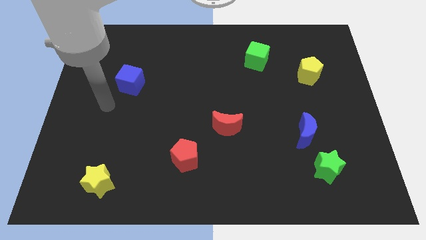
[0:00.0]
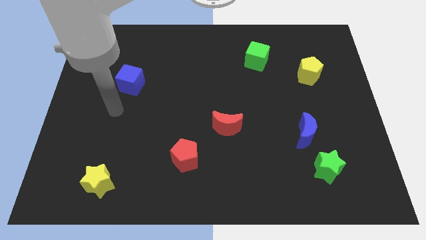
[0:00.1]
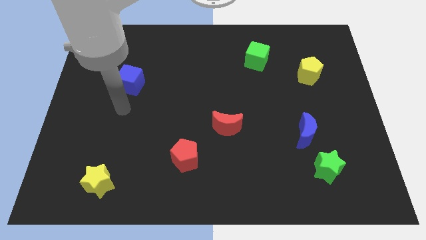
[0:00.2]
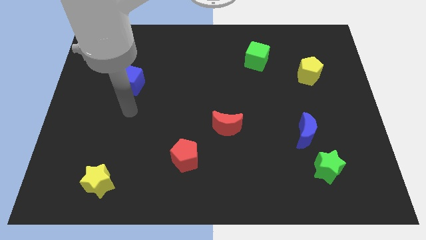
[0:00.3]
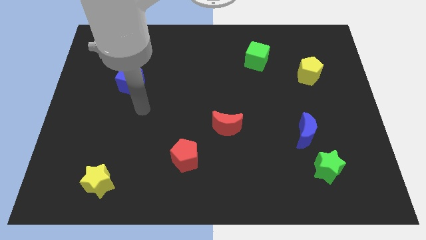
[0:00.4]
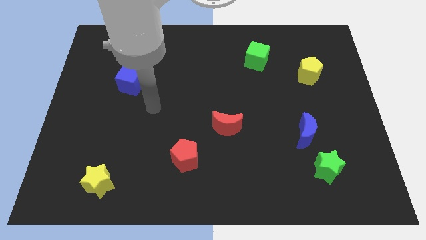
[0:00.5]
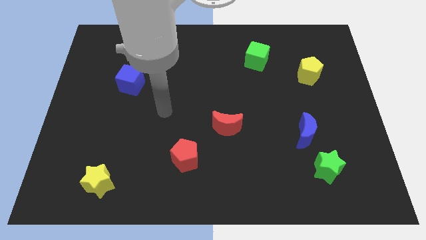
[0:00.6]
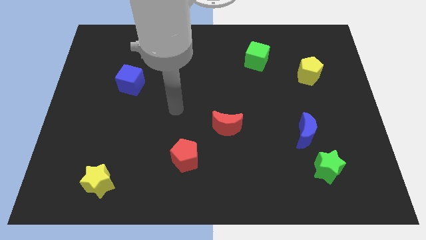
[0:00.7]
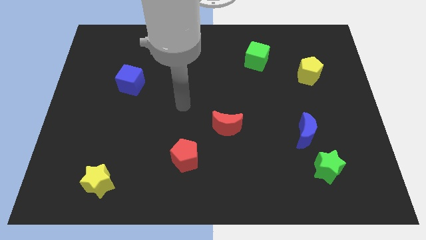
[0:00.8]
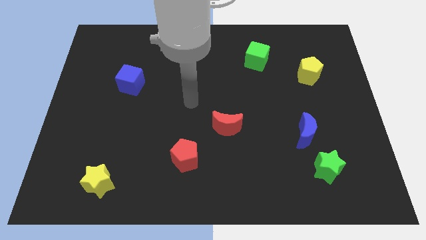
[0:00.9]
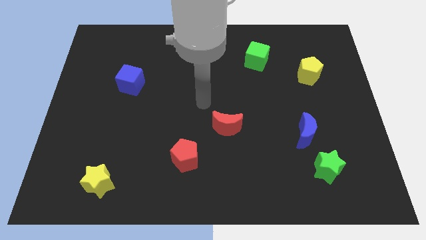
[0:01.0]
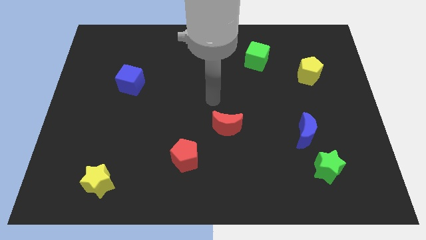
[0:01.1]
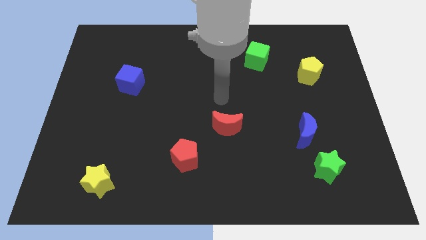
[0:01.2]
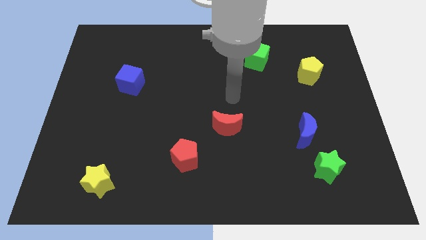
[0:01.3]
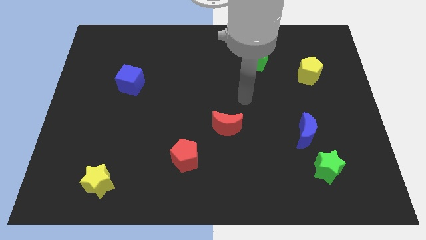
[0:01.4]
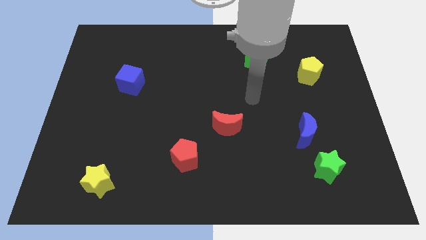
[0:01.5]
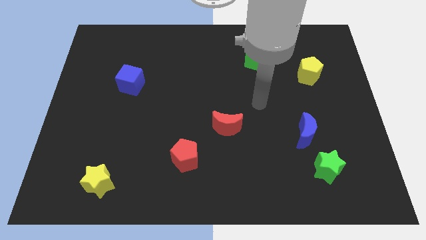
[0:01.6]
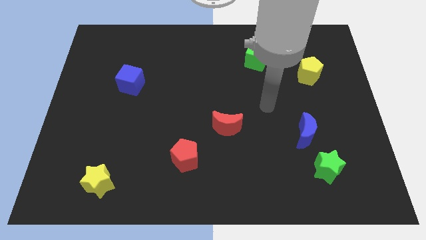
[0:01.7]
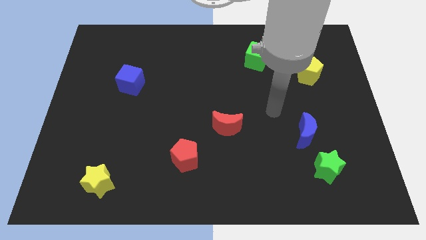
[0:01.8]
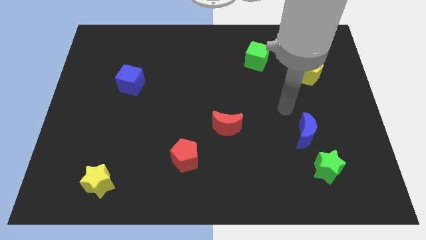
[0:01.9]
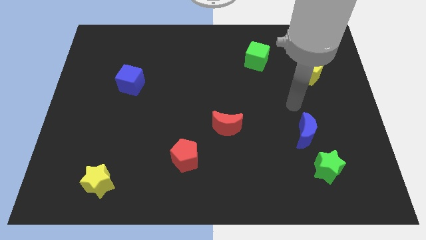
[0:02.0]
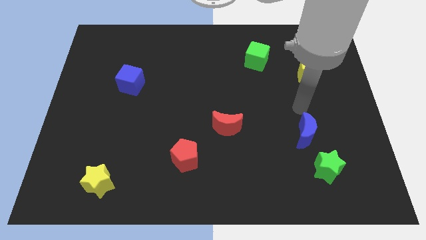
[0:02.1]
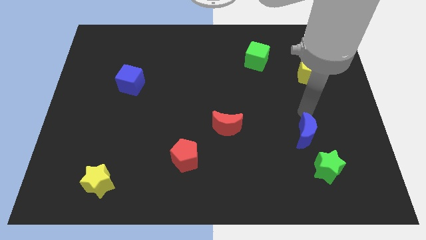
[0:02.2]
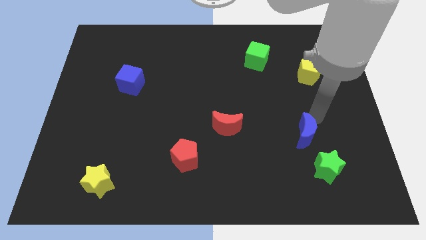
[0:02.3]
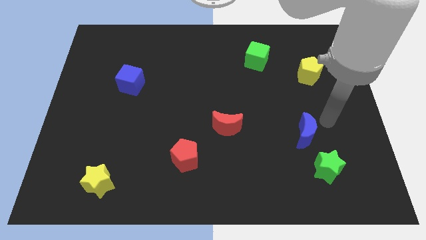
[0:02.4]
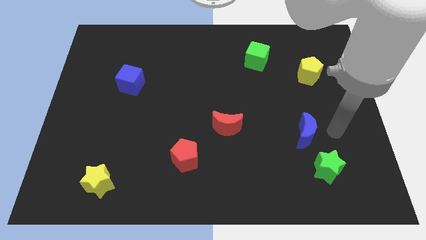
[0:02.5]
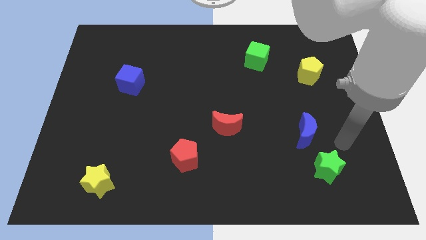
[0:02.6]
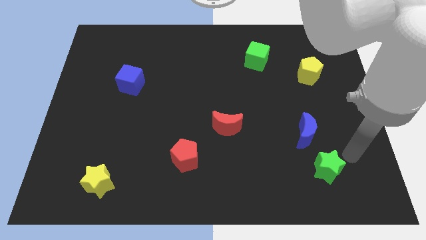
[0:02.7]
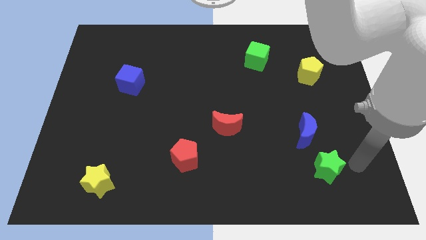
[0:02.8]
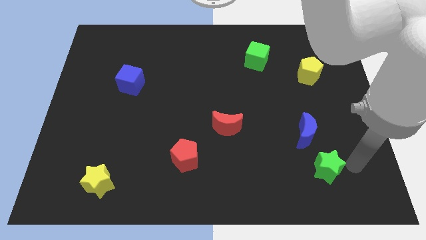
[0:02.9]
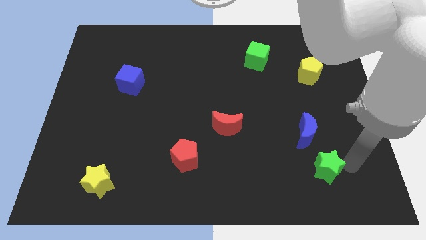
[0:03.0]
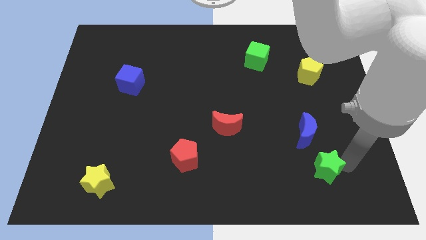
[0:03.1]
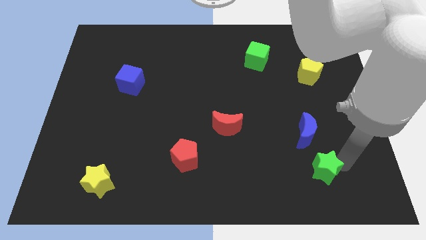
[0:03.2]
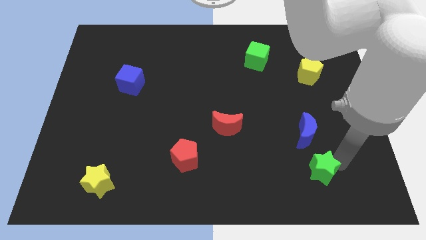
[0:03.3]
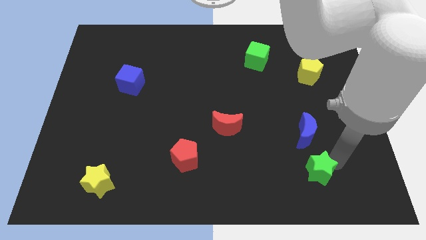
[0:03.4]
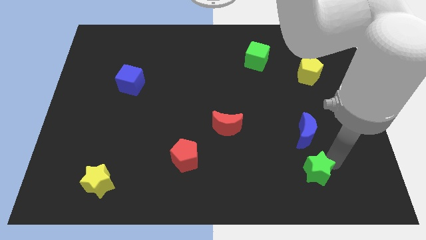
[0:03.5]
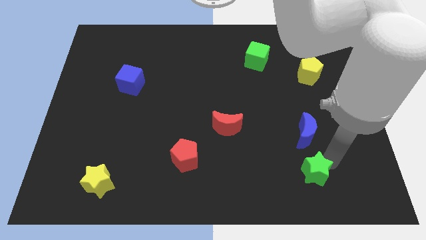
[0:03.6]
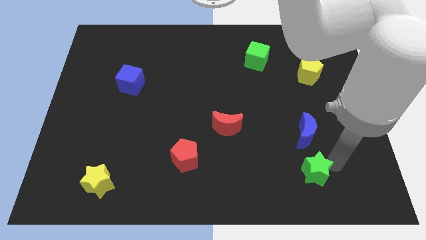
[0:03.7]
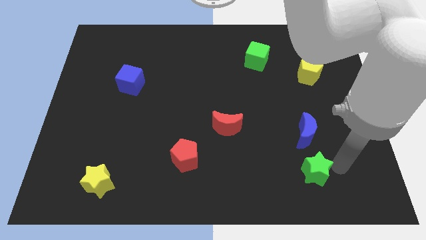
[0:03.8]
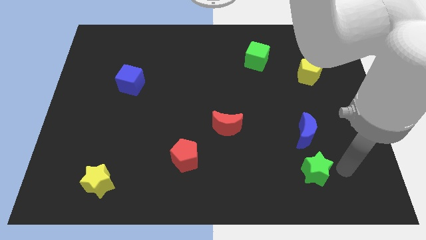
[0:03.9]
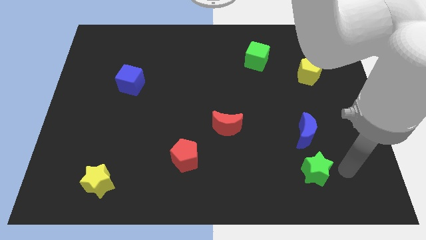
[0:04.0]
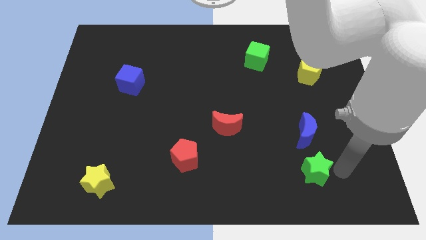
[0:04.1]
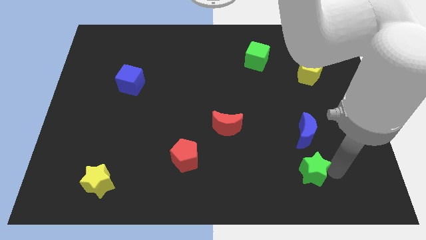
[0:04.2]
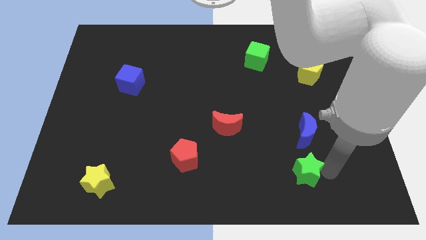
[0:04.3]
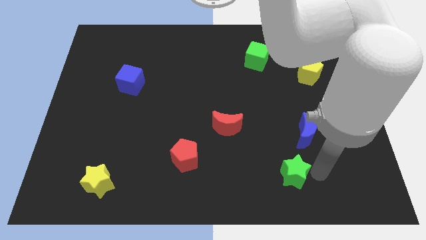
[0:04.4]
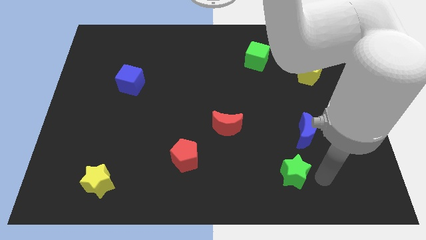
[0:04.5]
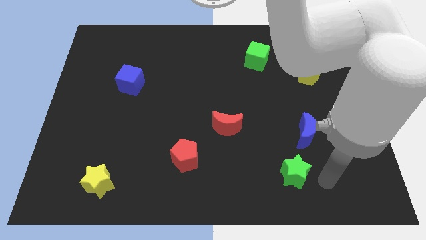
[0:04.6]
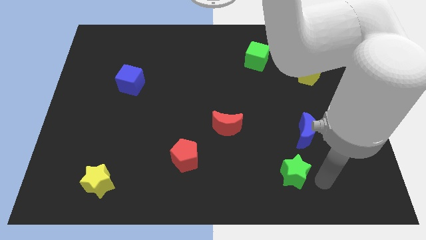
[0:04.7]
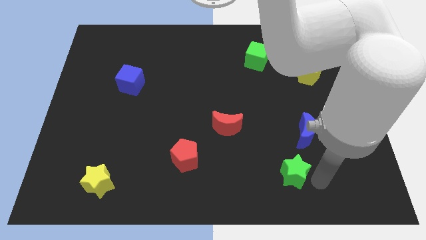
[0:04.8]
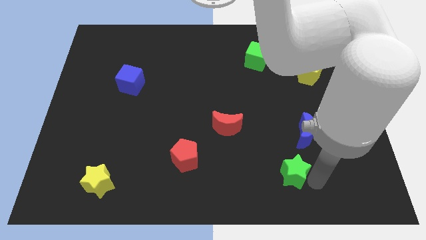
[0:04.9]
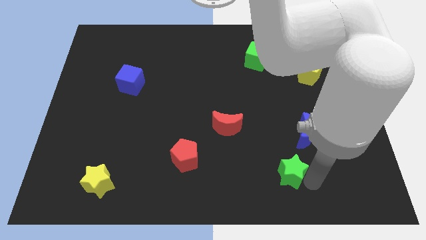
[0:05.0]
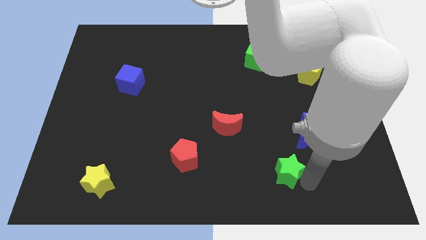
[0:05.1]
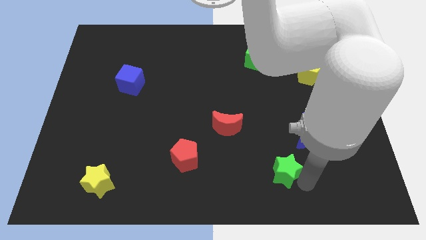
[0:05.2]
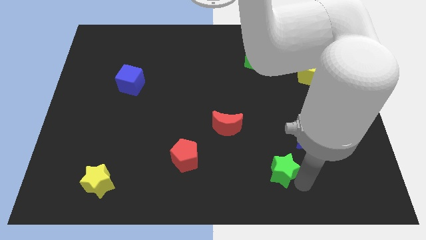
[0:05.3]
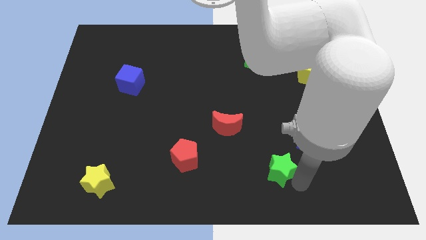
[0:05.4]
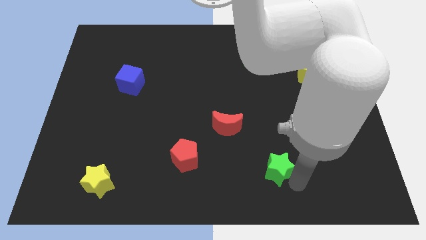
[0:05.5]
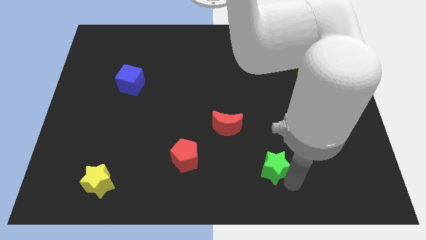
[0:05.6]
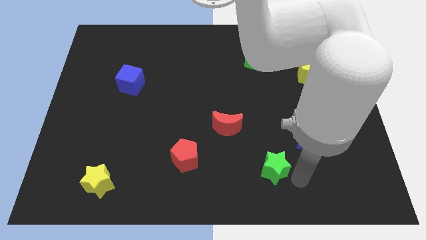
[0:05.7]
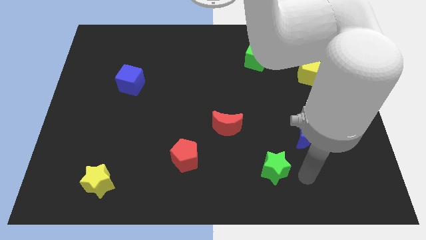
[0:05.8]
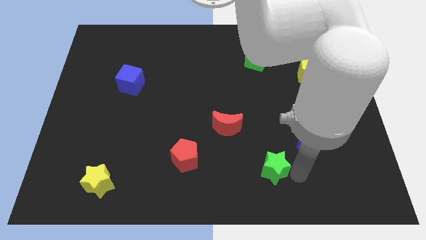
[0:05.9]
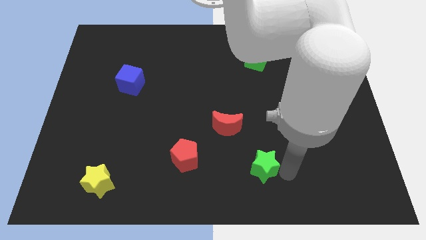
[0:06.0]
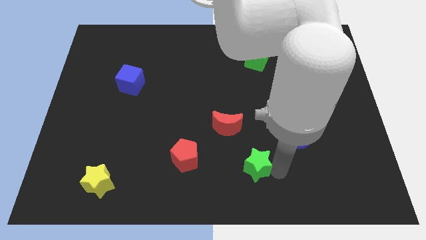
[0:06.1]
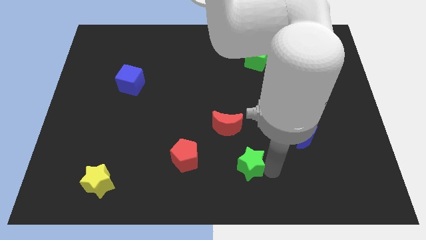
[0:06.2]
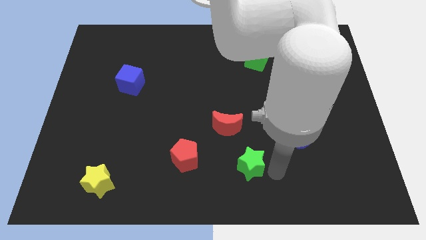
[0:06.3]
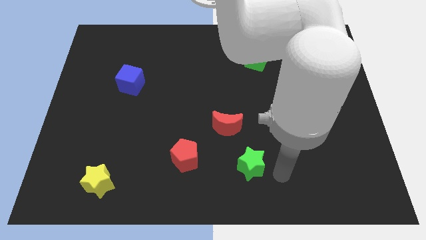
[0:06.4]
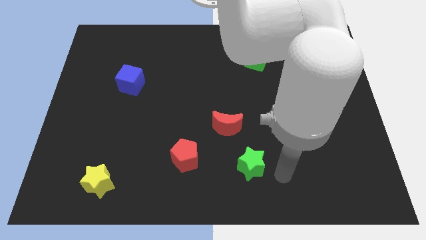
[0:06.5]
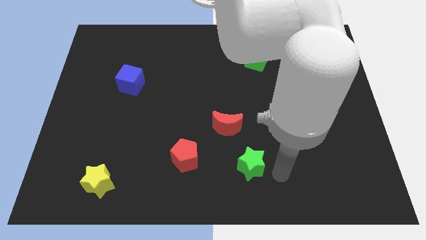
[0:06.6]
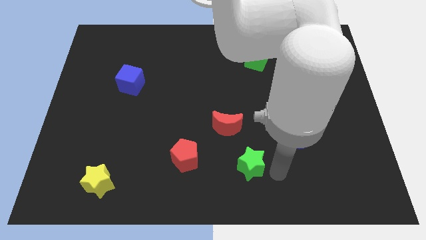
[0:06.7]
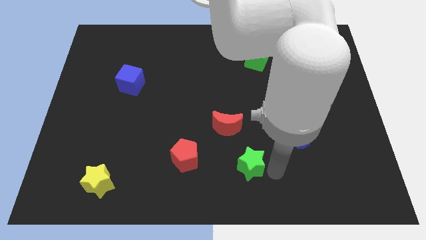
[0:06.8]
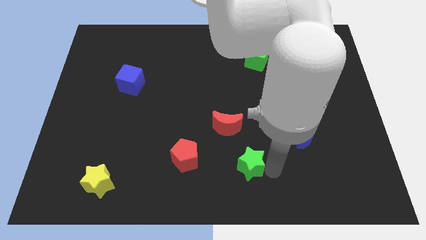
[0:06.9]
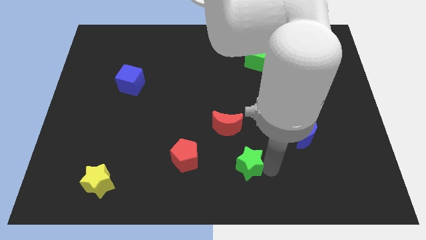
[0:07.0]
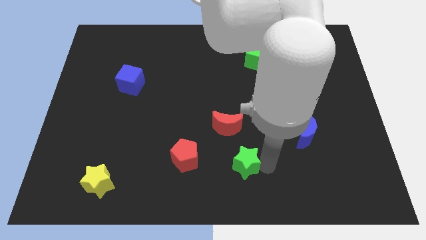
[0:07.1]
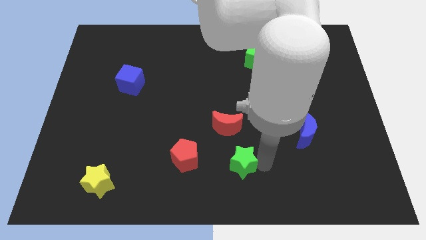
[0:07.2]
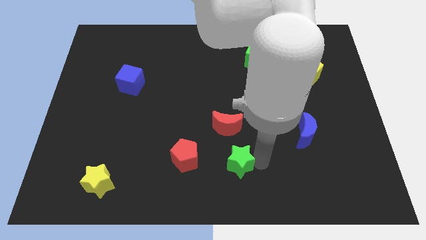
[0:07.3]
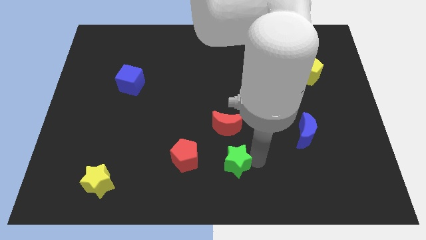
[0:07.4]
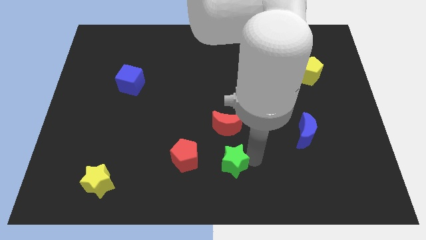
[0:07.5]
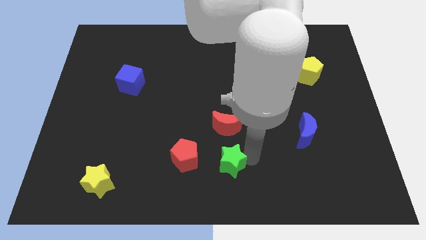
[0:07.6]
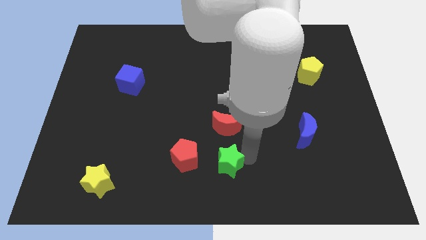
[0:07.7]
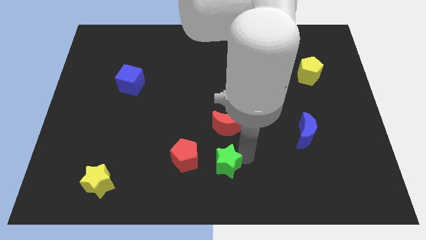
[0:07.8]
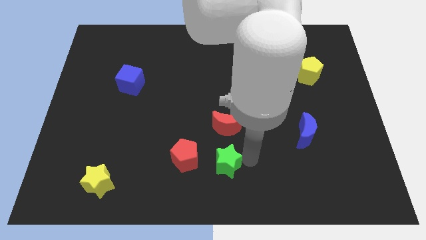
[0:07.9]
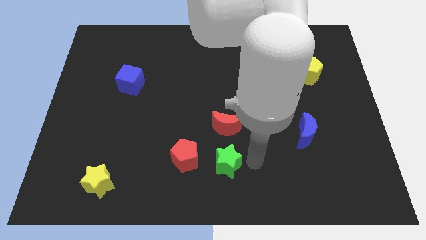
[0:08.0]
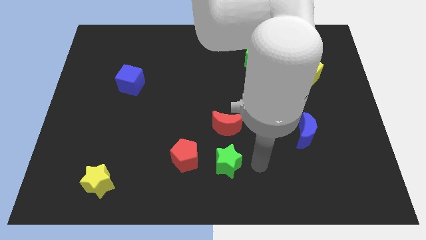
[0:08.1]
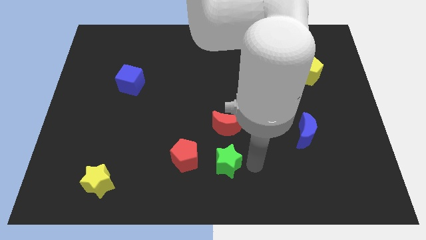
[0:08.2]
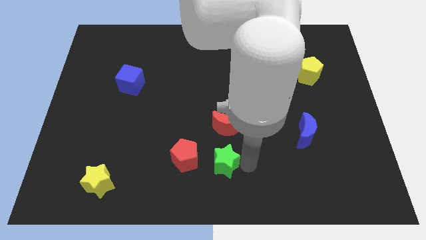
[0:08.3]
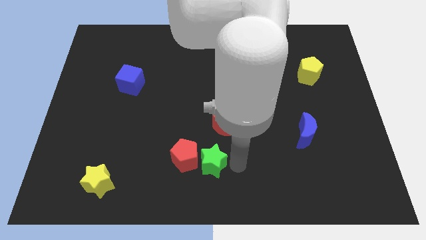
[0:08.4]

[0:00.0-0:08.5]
move the green star next to the red pentagon
